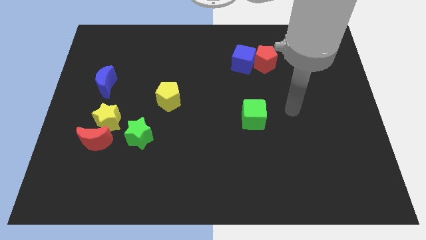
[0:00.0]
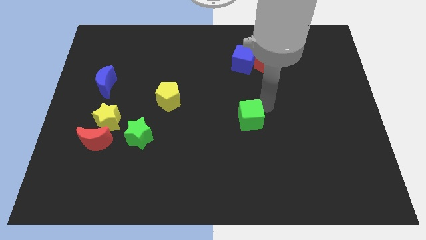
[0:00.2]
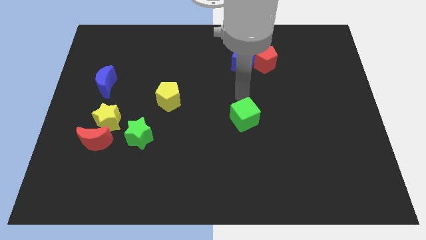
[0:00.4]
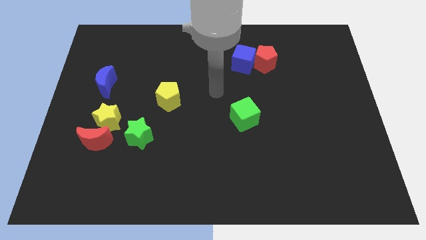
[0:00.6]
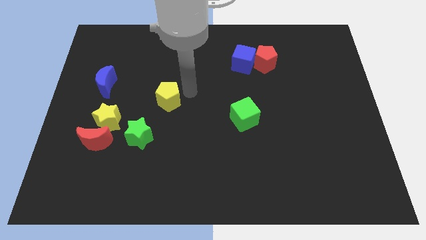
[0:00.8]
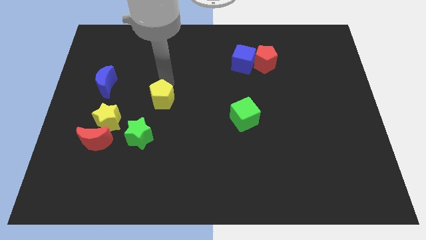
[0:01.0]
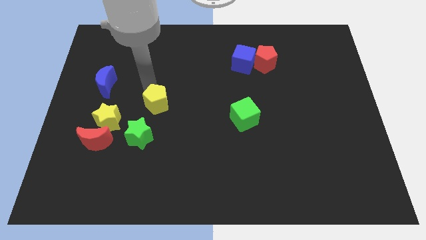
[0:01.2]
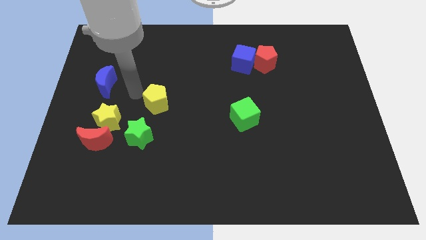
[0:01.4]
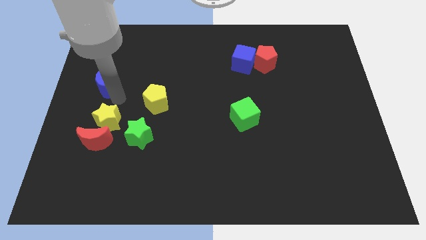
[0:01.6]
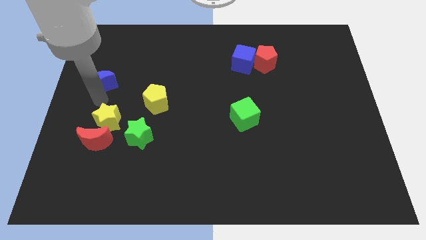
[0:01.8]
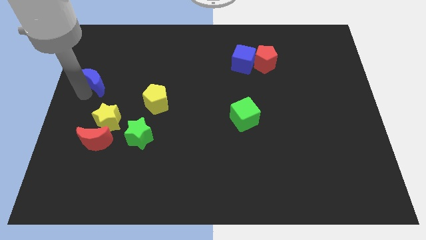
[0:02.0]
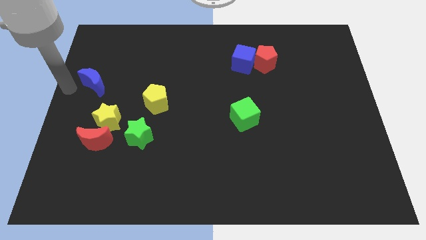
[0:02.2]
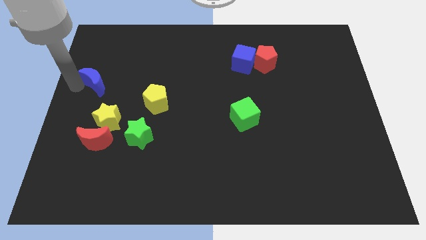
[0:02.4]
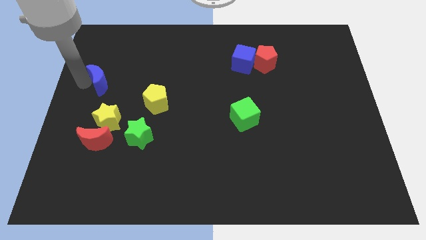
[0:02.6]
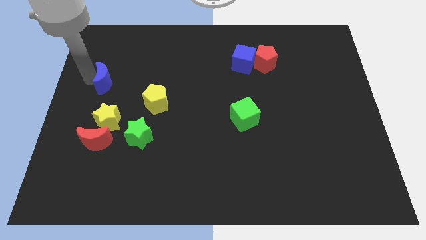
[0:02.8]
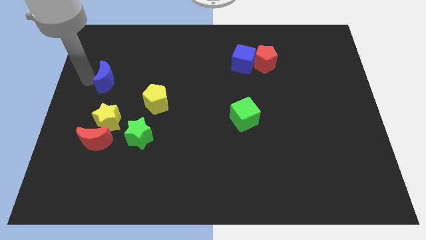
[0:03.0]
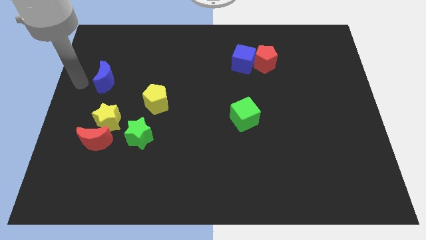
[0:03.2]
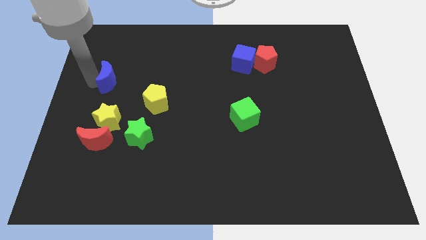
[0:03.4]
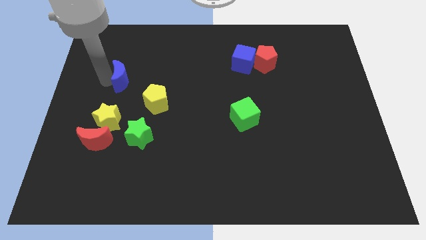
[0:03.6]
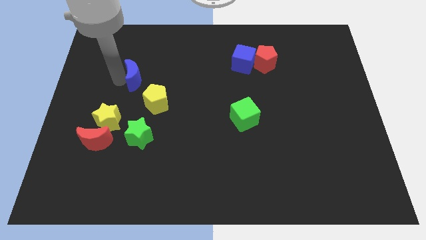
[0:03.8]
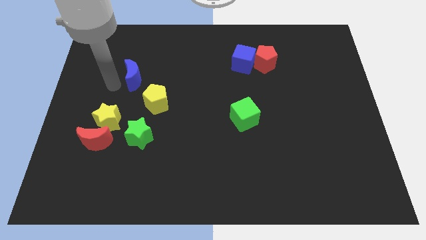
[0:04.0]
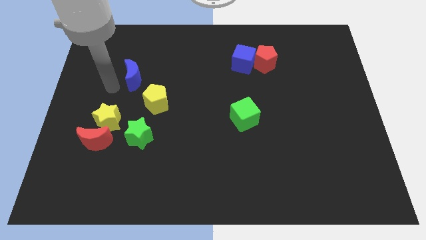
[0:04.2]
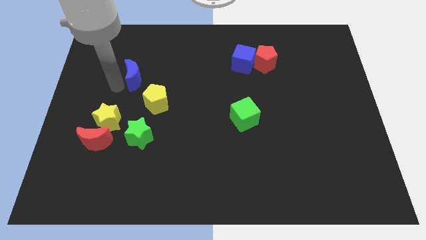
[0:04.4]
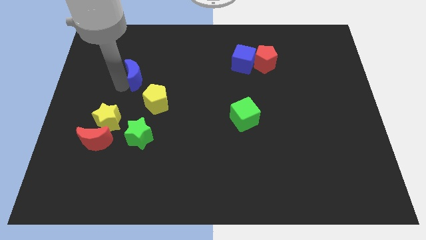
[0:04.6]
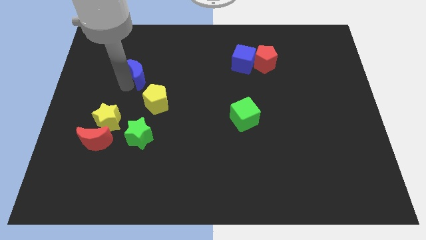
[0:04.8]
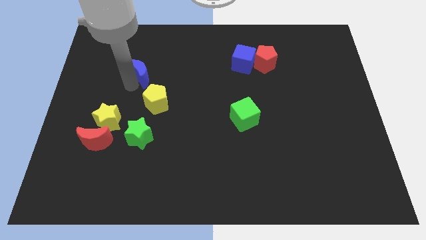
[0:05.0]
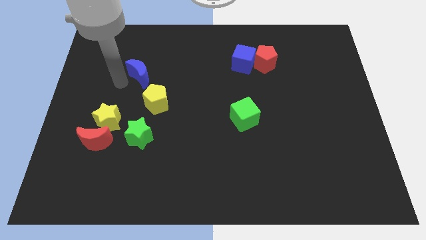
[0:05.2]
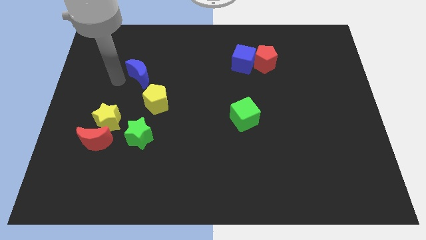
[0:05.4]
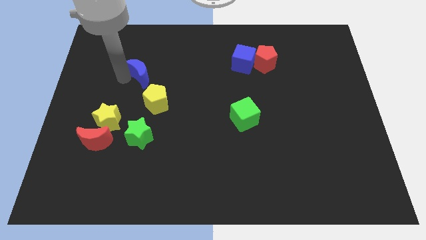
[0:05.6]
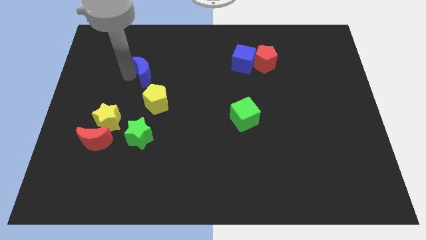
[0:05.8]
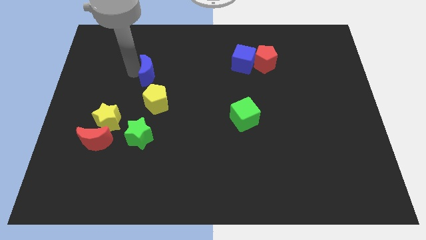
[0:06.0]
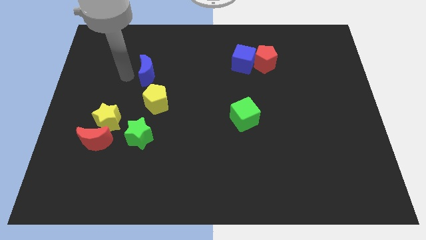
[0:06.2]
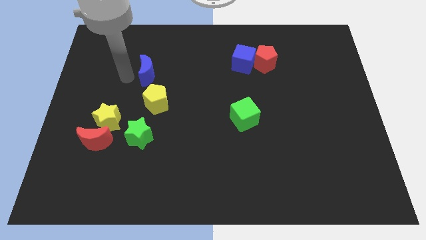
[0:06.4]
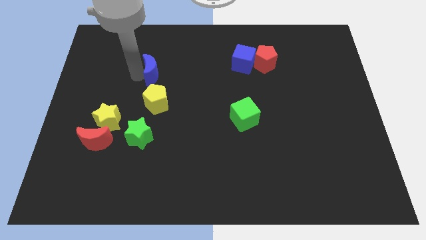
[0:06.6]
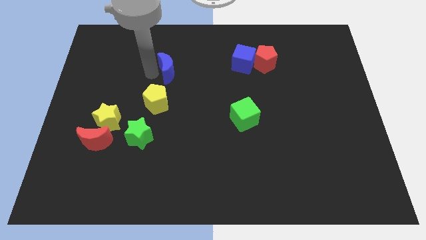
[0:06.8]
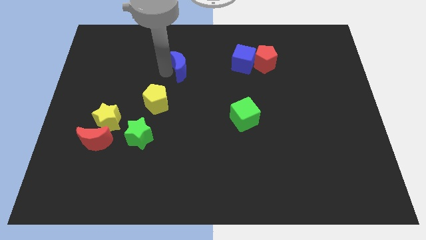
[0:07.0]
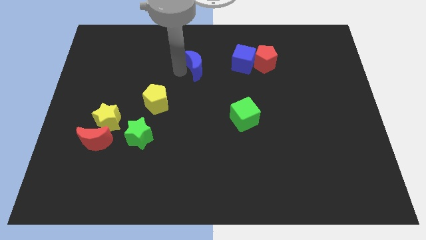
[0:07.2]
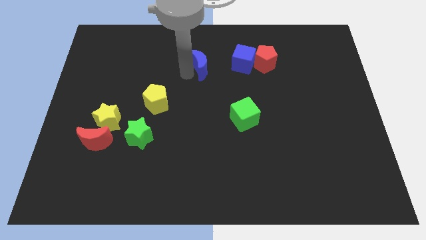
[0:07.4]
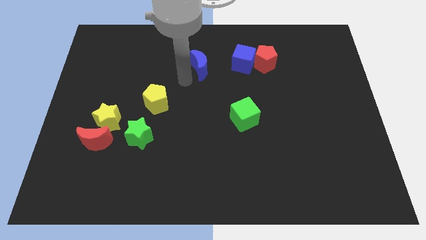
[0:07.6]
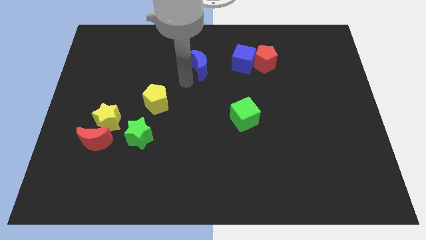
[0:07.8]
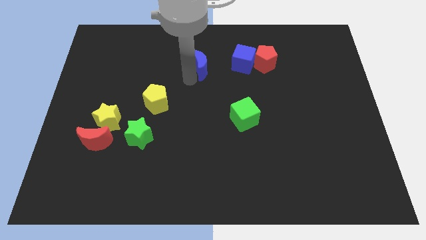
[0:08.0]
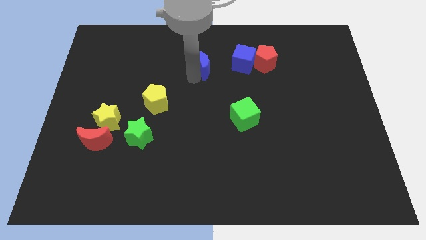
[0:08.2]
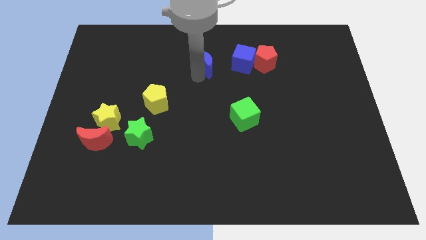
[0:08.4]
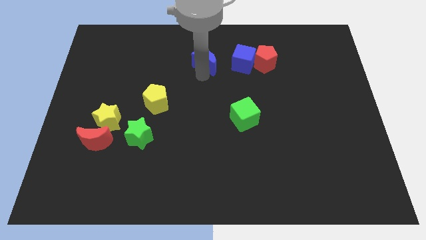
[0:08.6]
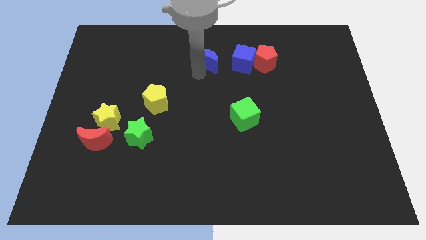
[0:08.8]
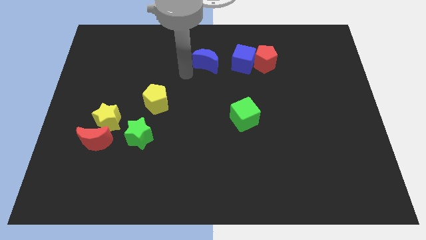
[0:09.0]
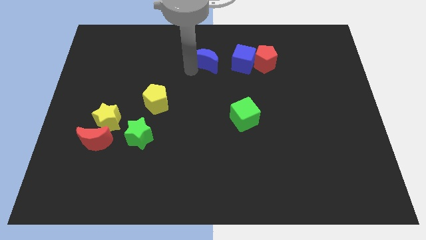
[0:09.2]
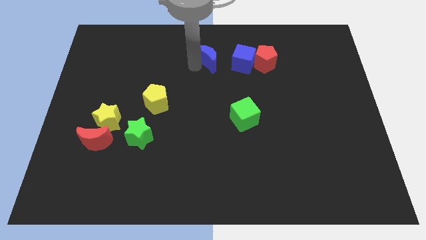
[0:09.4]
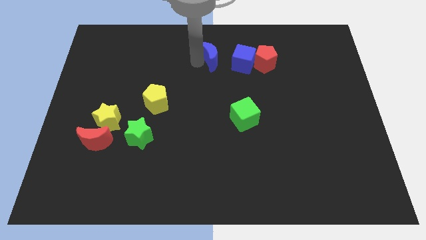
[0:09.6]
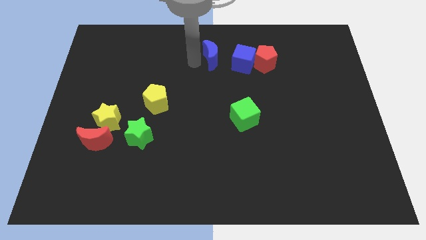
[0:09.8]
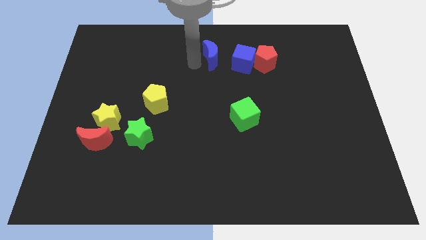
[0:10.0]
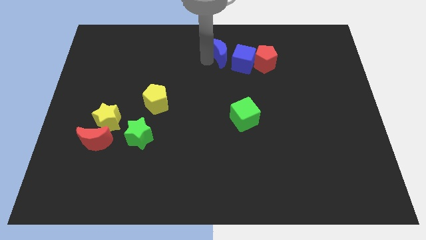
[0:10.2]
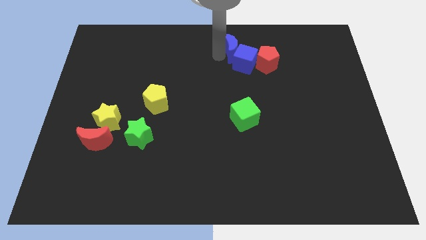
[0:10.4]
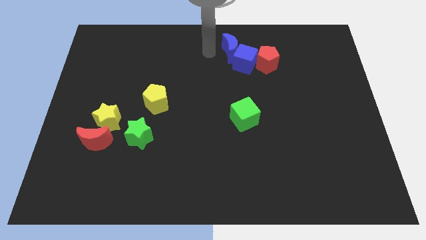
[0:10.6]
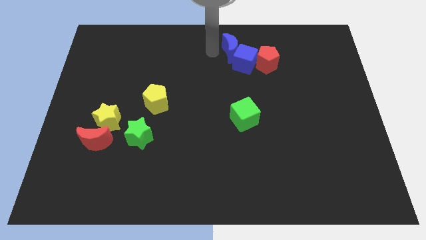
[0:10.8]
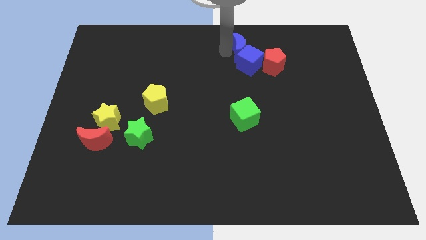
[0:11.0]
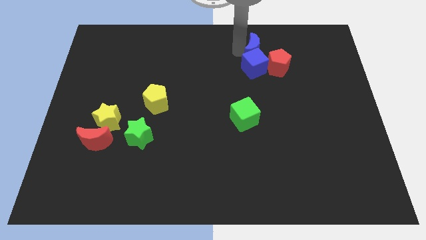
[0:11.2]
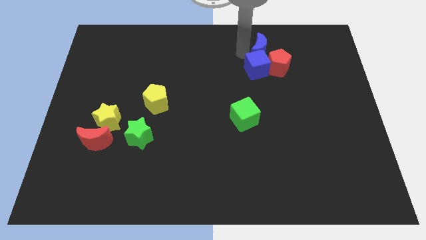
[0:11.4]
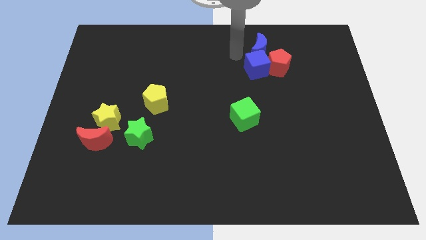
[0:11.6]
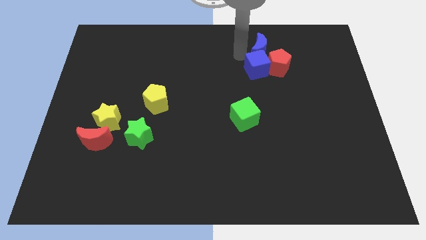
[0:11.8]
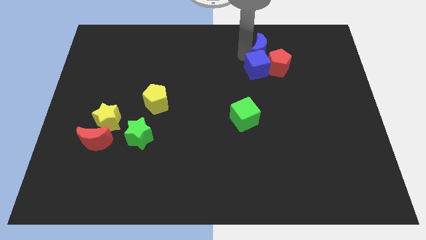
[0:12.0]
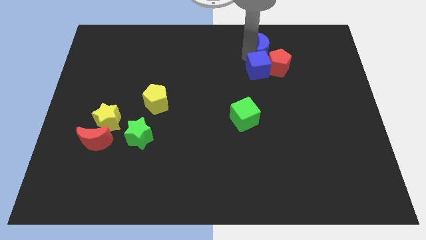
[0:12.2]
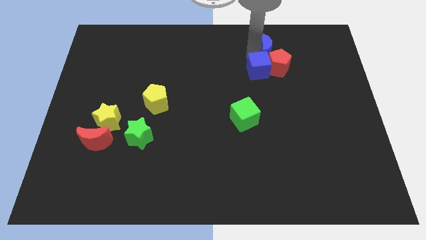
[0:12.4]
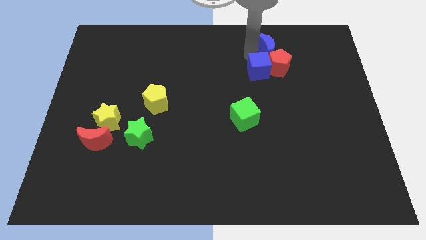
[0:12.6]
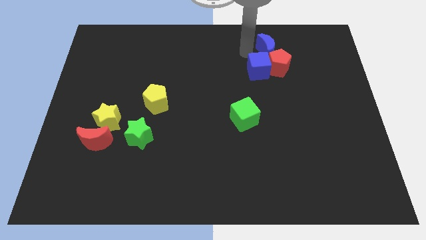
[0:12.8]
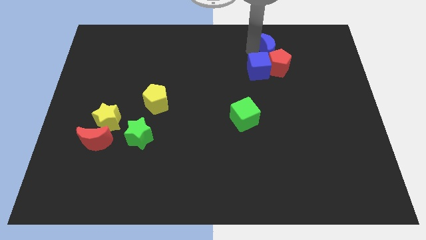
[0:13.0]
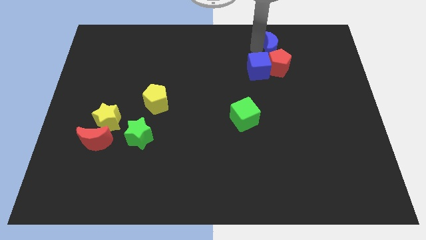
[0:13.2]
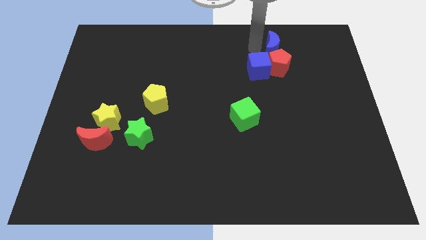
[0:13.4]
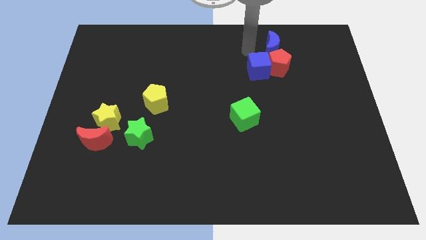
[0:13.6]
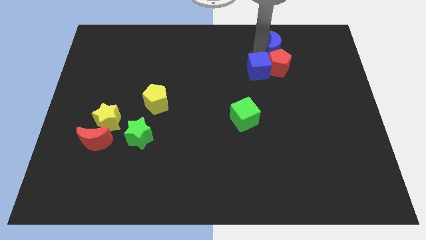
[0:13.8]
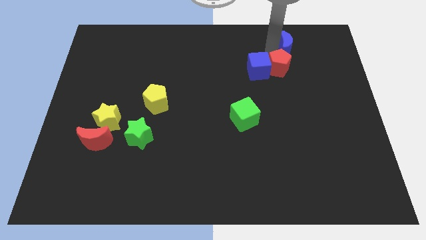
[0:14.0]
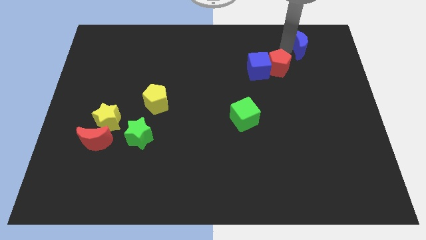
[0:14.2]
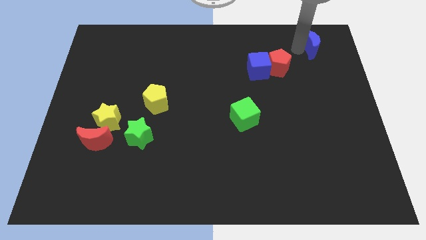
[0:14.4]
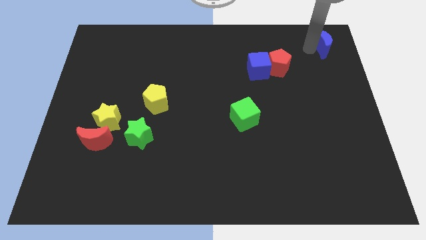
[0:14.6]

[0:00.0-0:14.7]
put the blue moon to the top right corner
